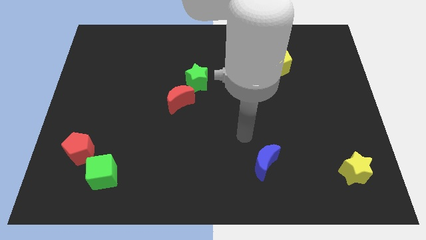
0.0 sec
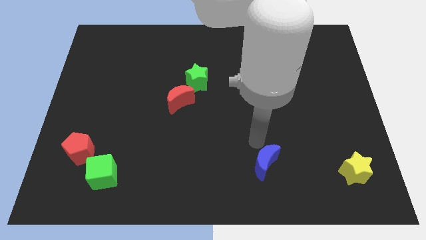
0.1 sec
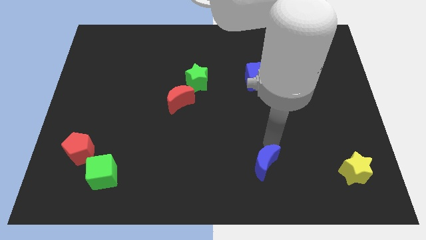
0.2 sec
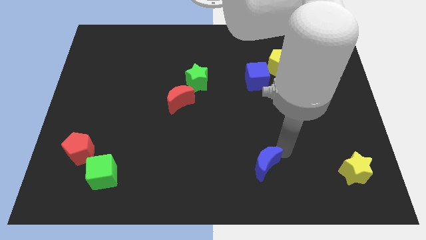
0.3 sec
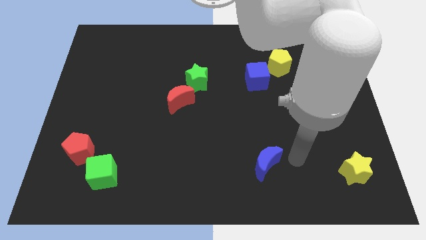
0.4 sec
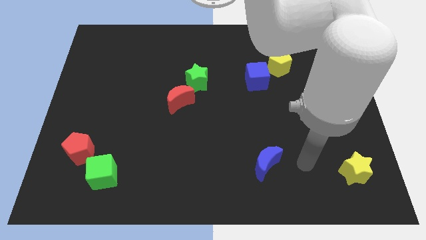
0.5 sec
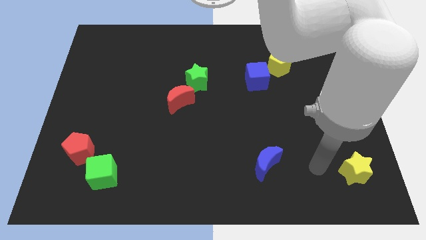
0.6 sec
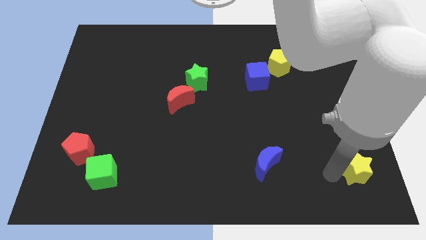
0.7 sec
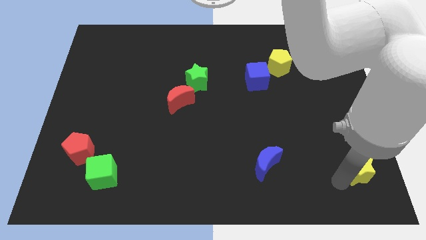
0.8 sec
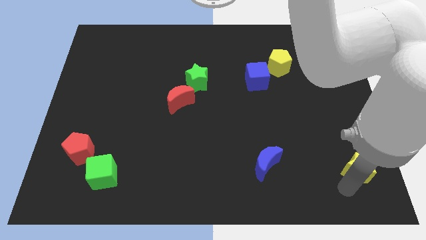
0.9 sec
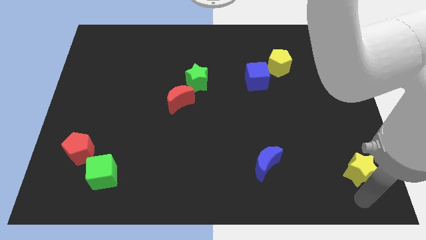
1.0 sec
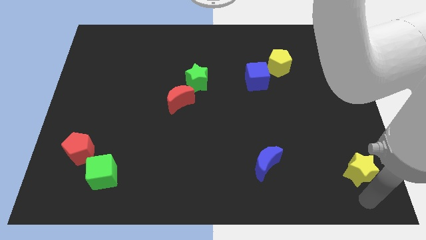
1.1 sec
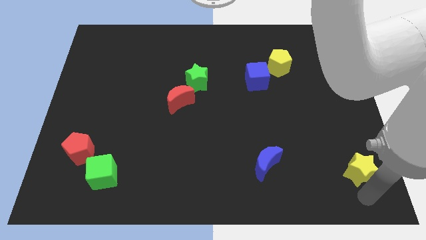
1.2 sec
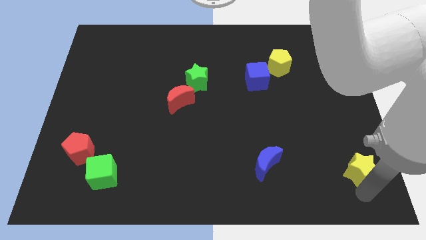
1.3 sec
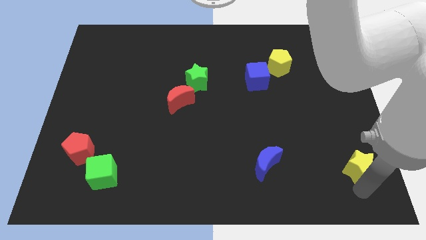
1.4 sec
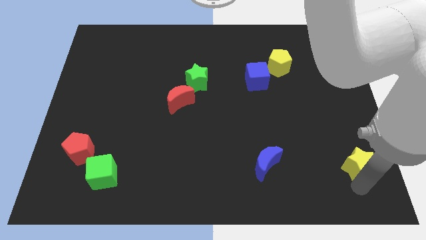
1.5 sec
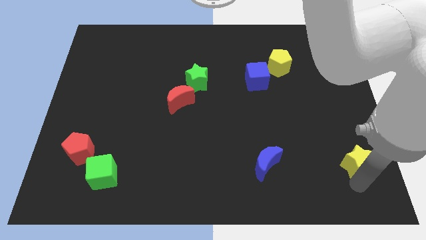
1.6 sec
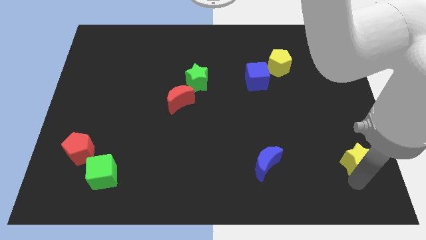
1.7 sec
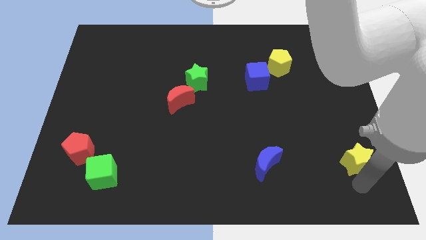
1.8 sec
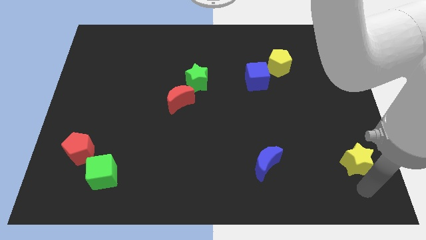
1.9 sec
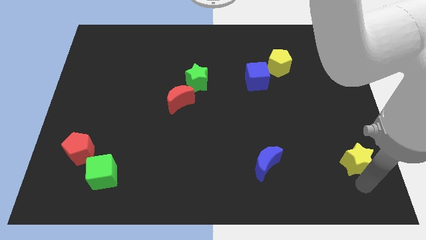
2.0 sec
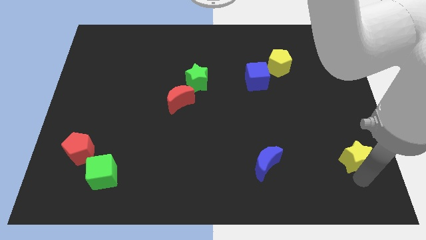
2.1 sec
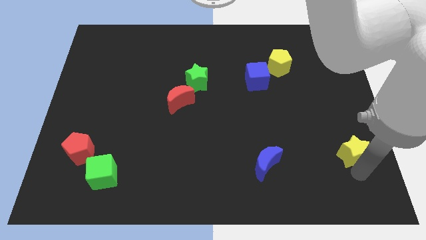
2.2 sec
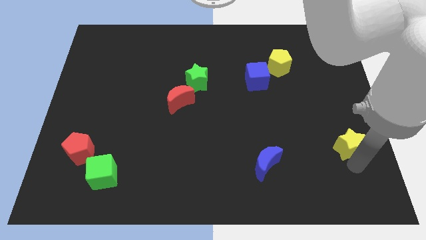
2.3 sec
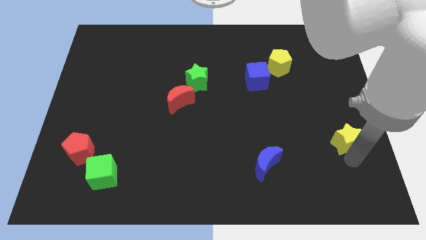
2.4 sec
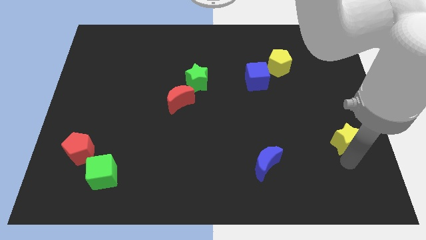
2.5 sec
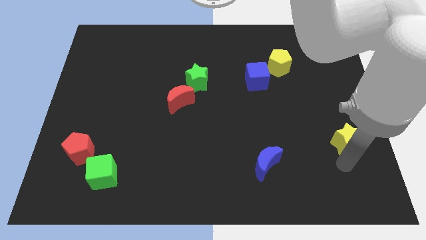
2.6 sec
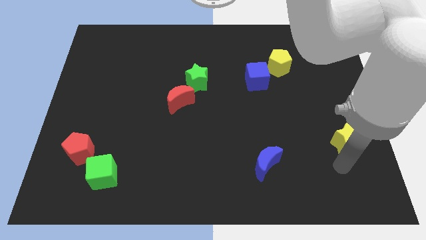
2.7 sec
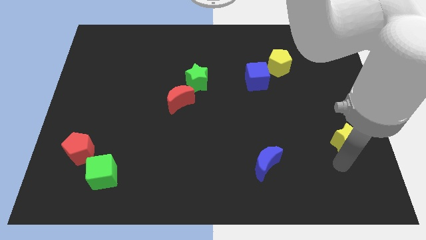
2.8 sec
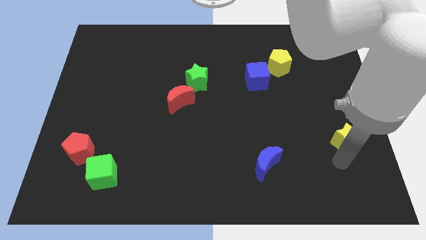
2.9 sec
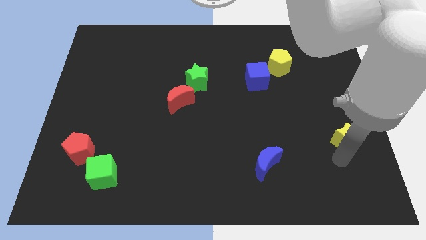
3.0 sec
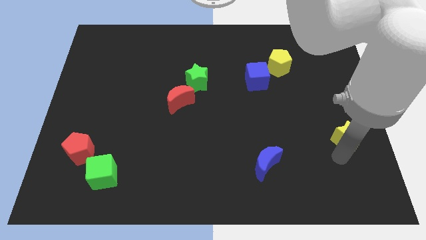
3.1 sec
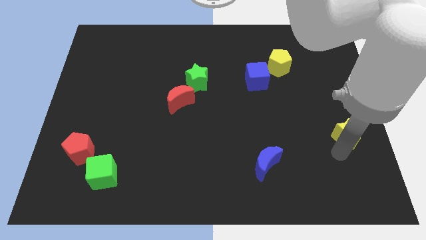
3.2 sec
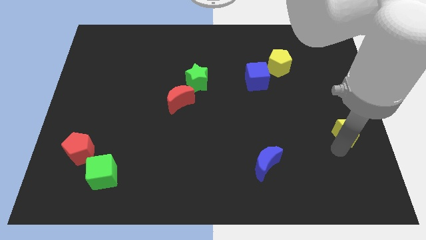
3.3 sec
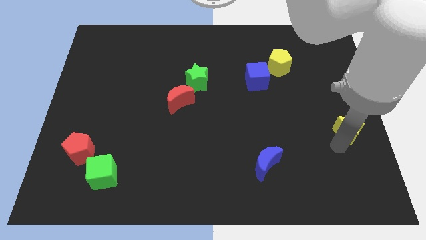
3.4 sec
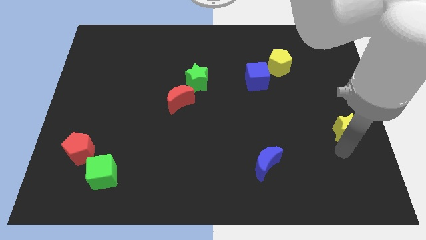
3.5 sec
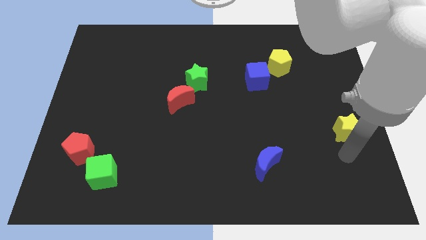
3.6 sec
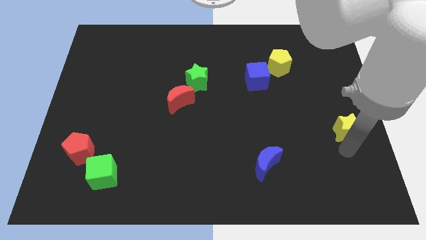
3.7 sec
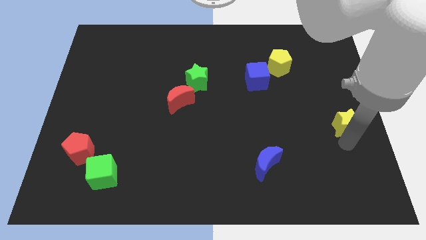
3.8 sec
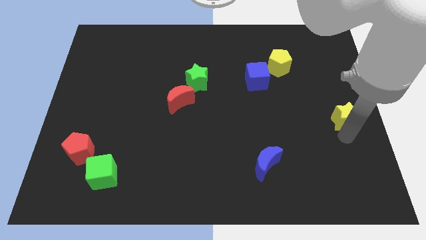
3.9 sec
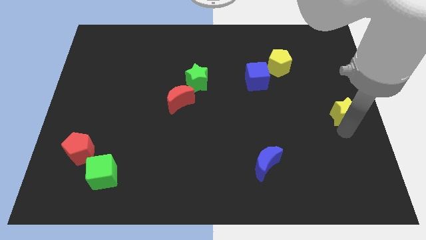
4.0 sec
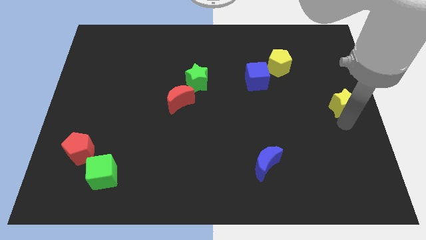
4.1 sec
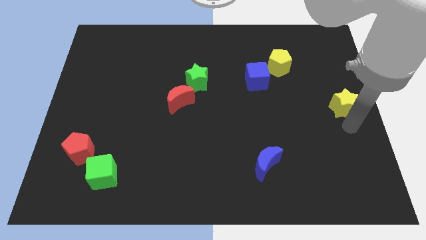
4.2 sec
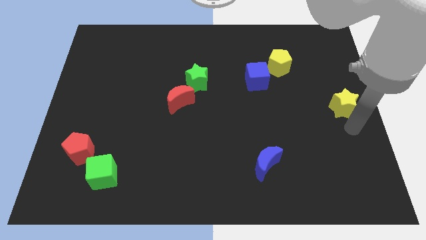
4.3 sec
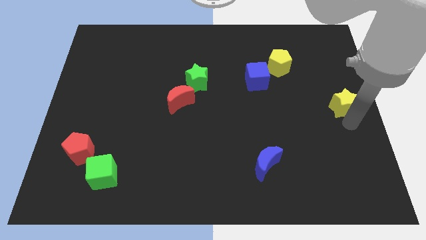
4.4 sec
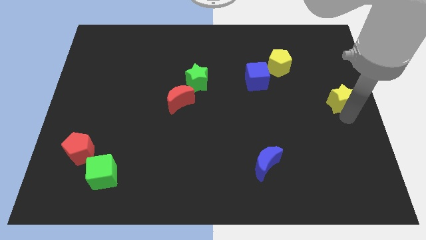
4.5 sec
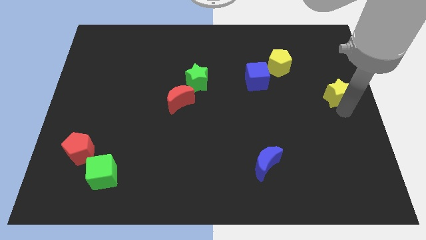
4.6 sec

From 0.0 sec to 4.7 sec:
move the yellow star upwards

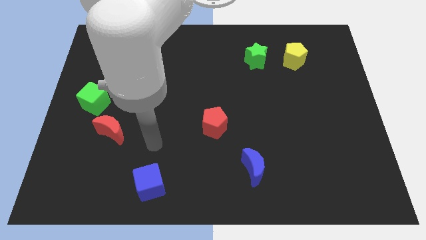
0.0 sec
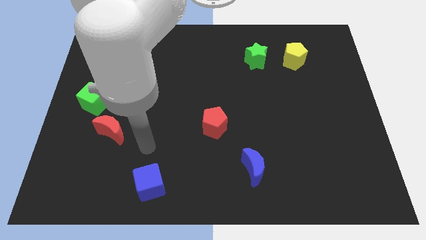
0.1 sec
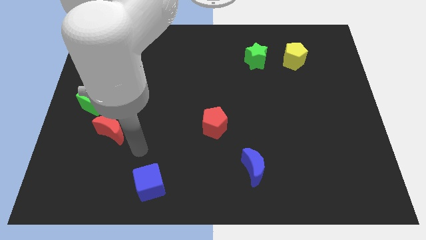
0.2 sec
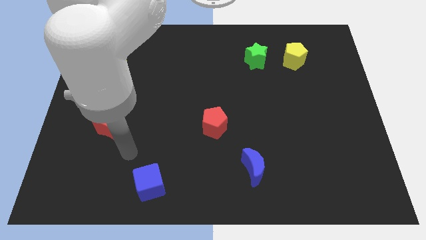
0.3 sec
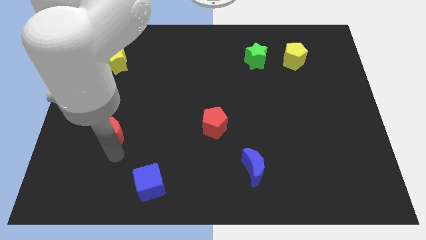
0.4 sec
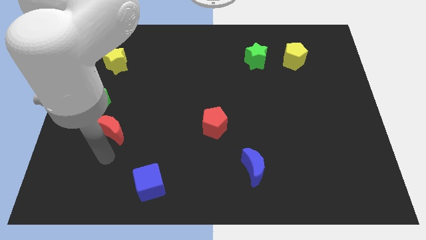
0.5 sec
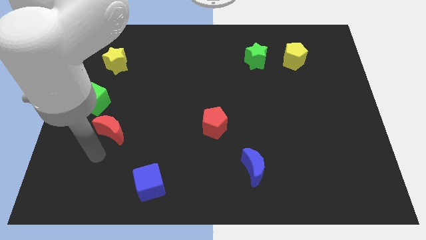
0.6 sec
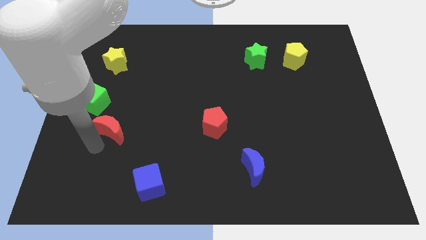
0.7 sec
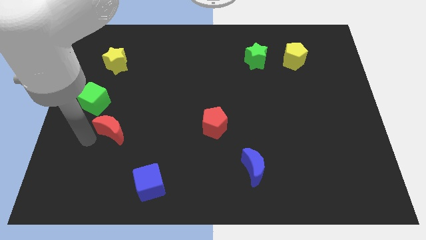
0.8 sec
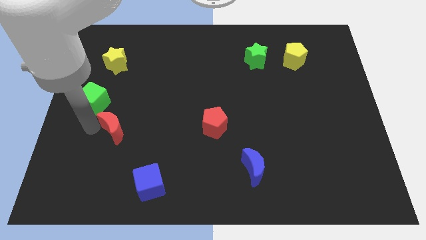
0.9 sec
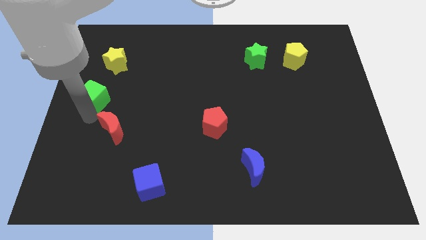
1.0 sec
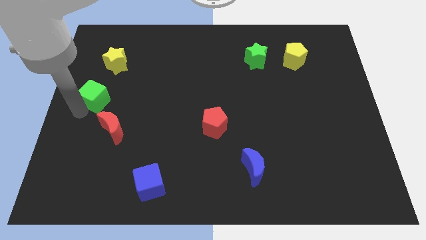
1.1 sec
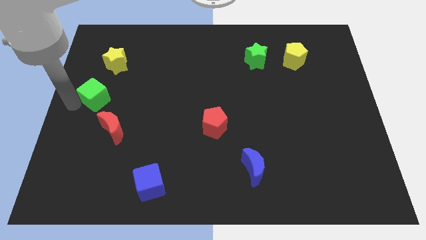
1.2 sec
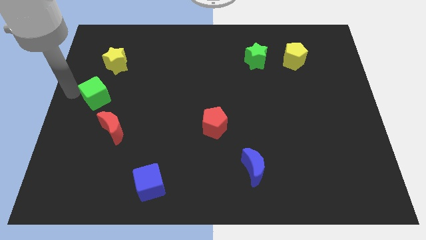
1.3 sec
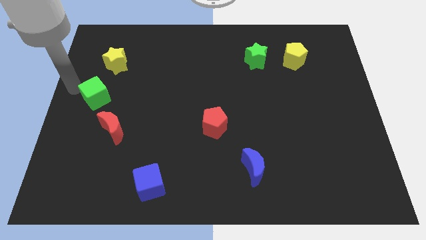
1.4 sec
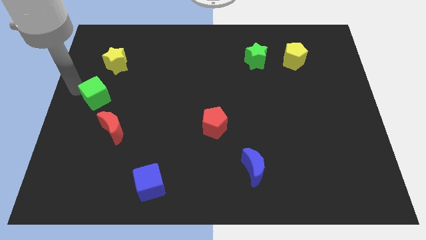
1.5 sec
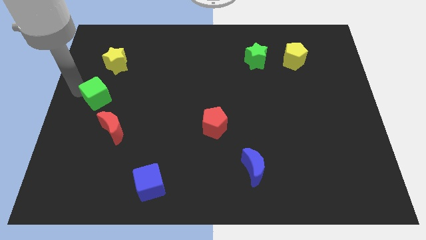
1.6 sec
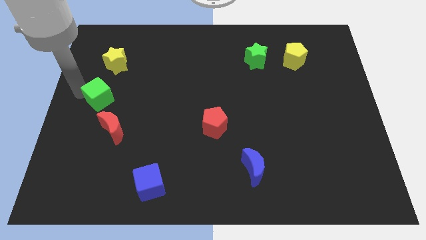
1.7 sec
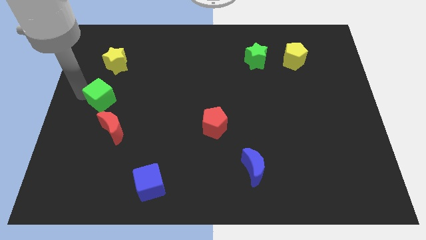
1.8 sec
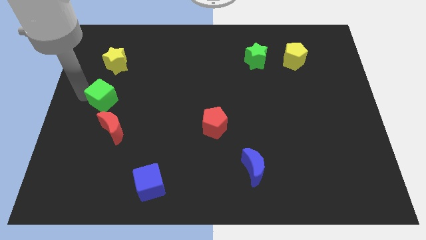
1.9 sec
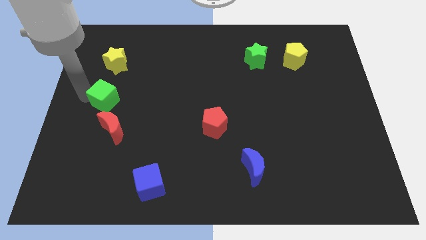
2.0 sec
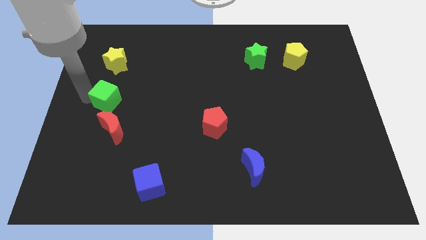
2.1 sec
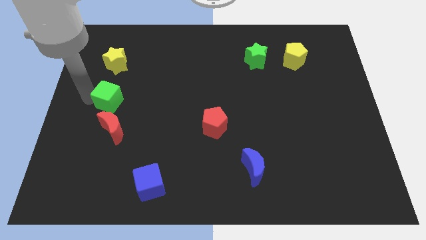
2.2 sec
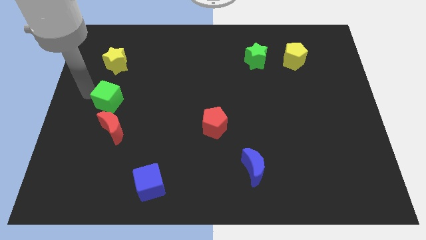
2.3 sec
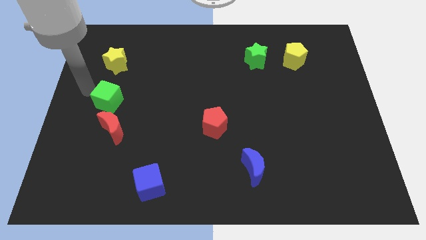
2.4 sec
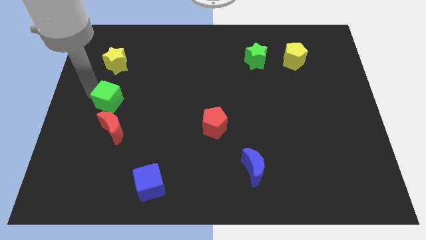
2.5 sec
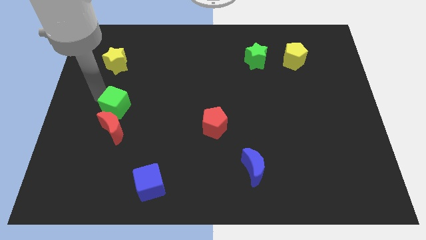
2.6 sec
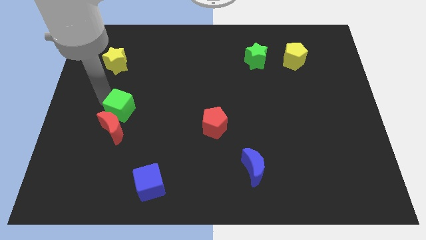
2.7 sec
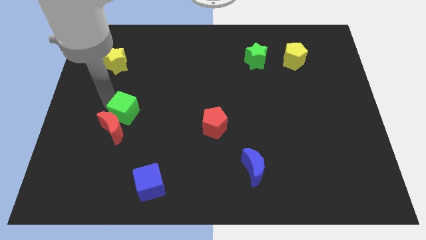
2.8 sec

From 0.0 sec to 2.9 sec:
slightly slide the green cube downwards and to the right diagonally

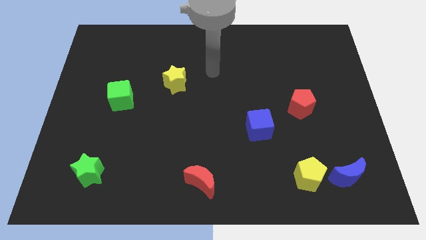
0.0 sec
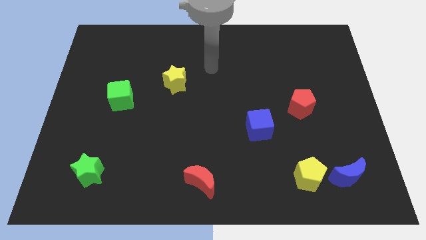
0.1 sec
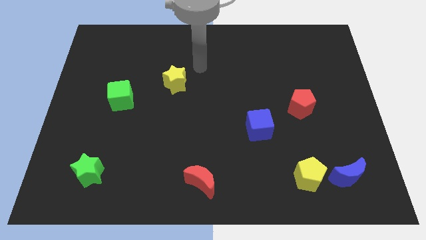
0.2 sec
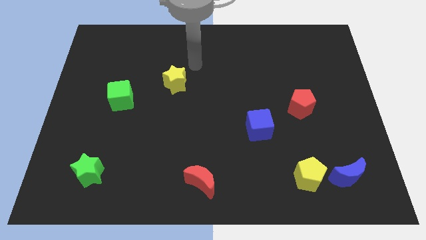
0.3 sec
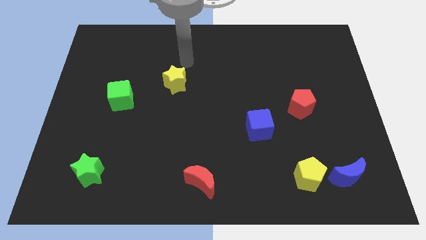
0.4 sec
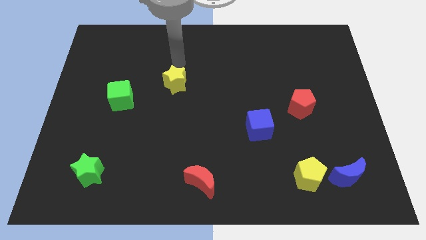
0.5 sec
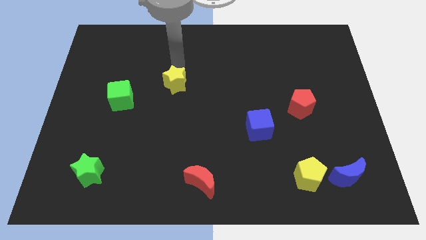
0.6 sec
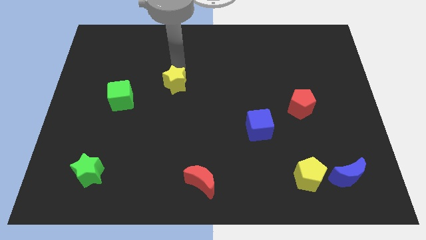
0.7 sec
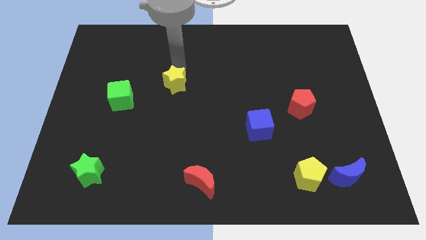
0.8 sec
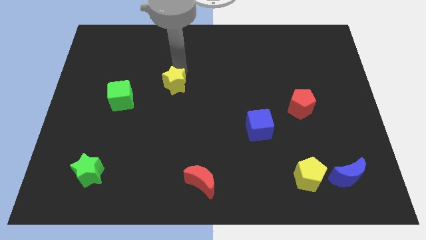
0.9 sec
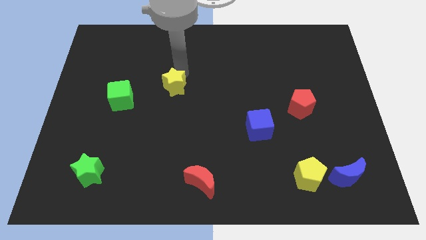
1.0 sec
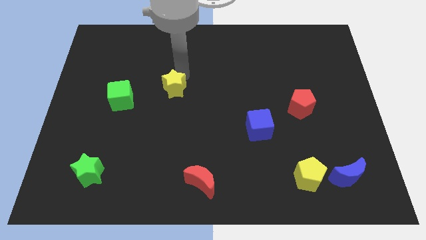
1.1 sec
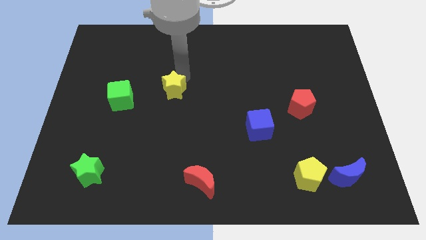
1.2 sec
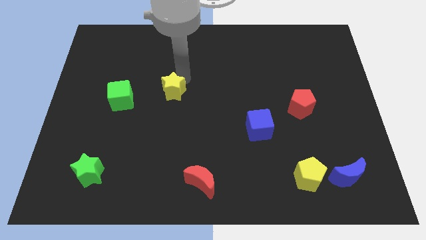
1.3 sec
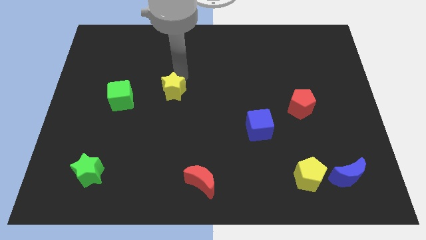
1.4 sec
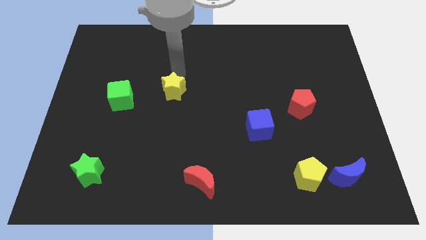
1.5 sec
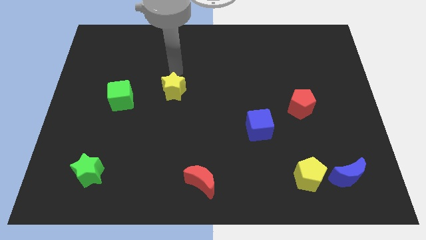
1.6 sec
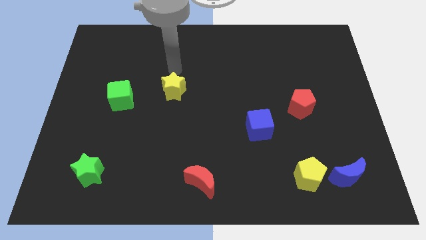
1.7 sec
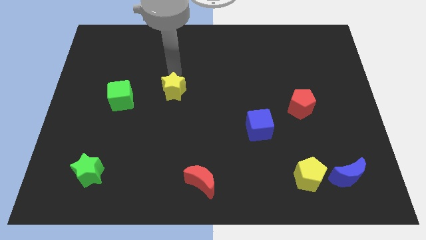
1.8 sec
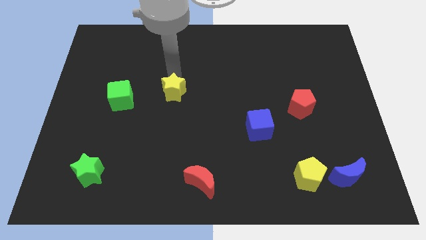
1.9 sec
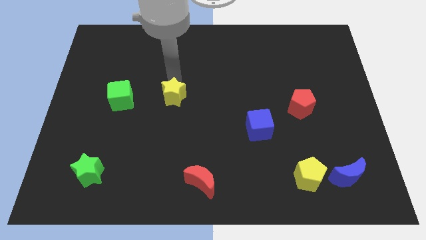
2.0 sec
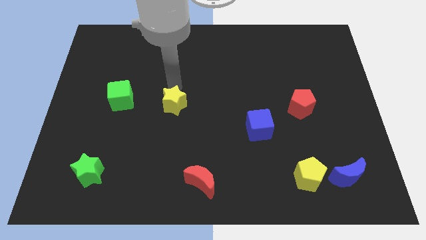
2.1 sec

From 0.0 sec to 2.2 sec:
slightly move the yellow star down
